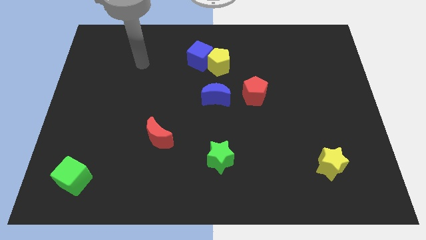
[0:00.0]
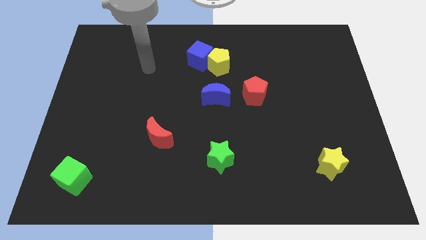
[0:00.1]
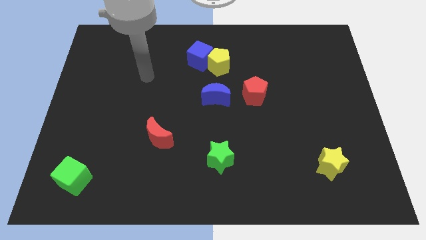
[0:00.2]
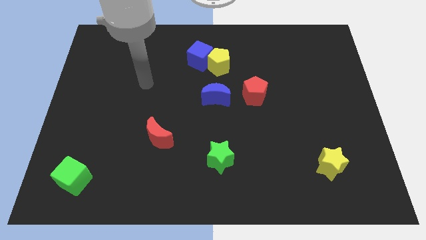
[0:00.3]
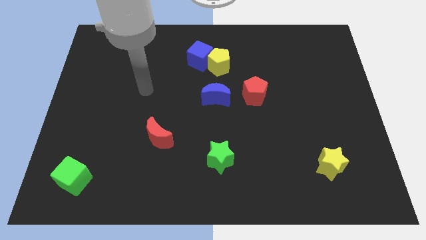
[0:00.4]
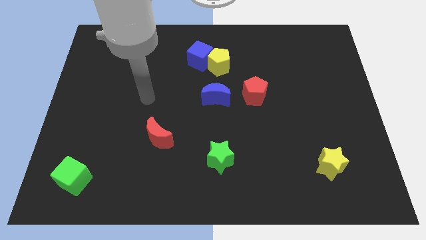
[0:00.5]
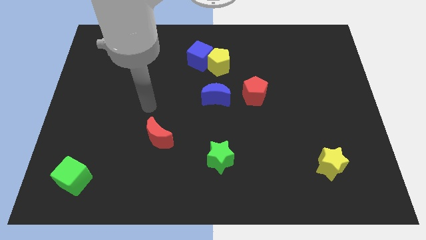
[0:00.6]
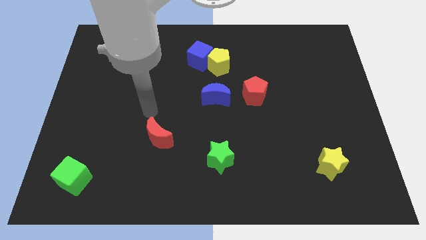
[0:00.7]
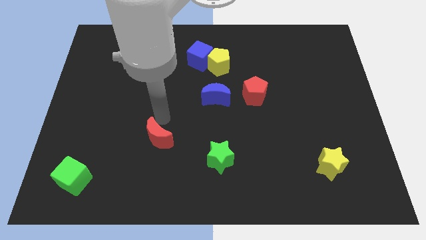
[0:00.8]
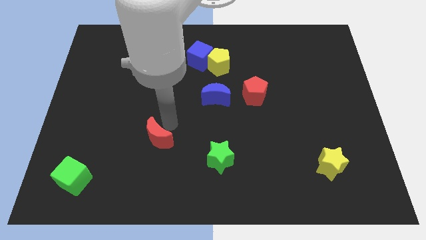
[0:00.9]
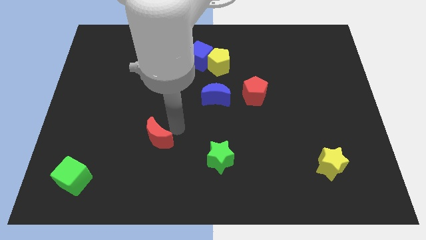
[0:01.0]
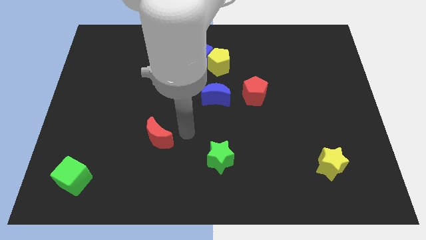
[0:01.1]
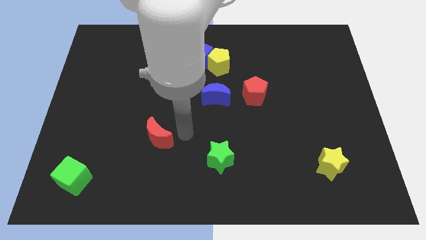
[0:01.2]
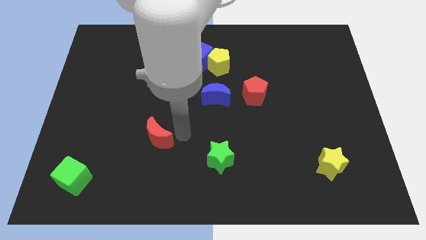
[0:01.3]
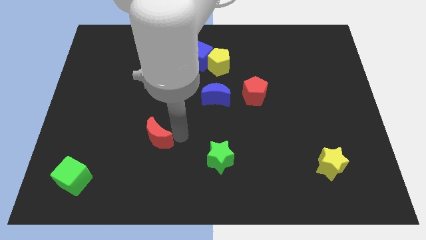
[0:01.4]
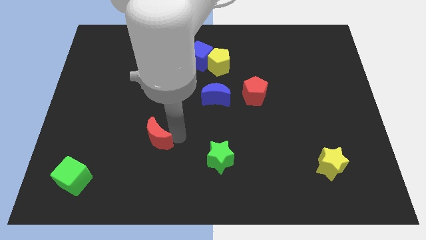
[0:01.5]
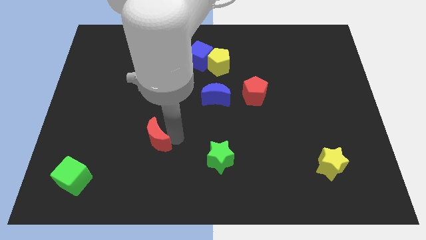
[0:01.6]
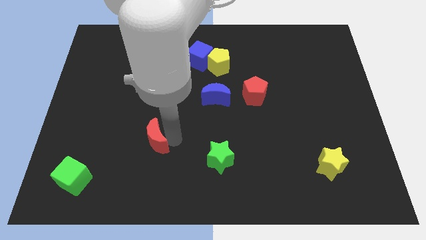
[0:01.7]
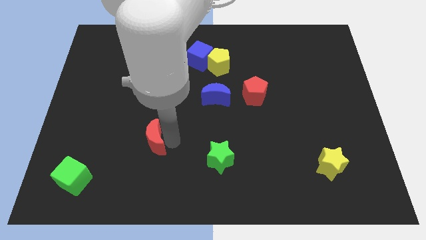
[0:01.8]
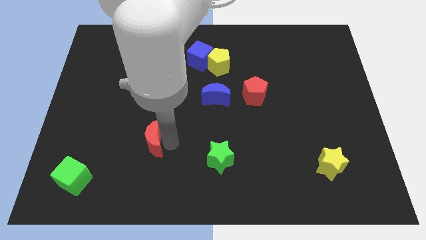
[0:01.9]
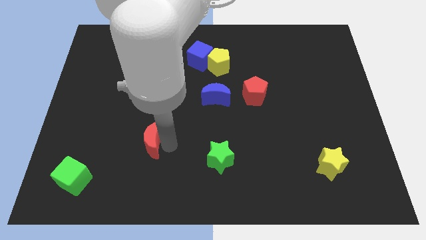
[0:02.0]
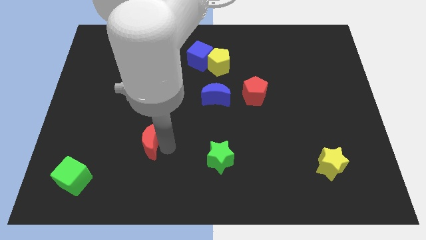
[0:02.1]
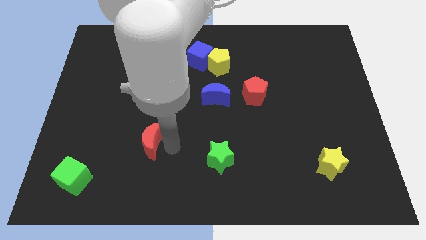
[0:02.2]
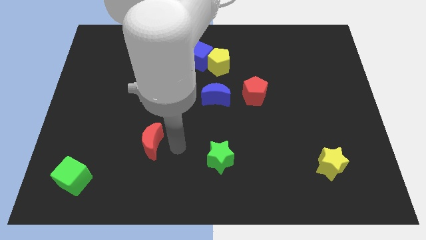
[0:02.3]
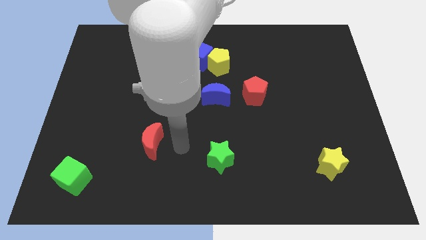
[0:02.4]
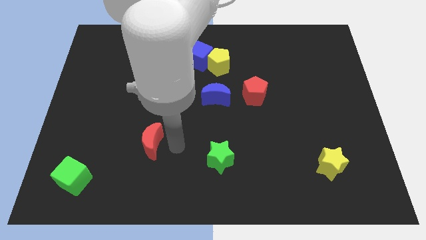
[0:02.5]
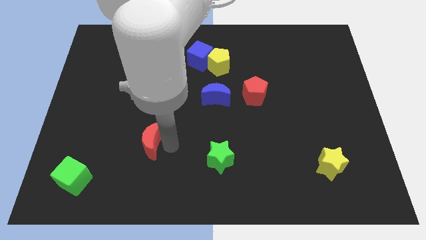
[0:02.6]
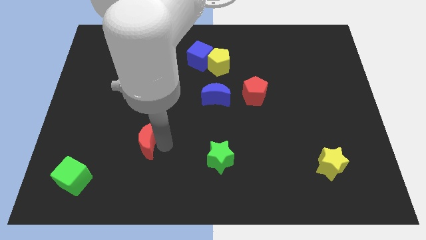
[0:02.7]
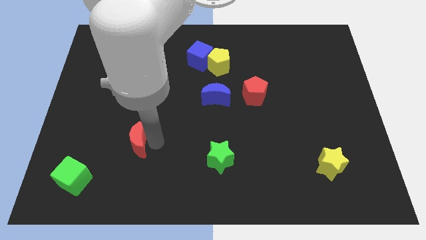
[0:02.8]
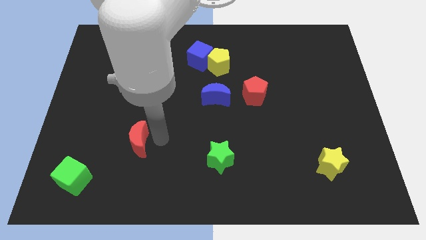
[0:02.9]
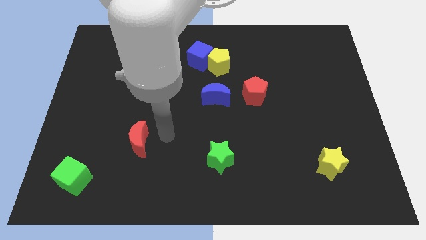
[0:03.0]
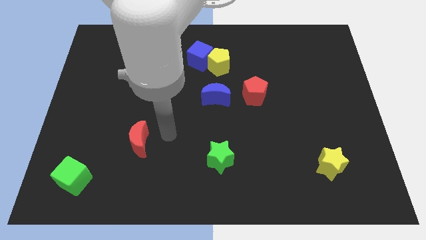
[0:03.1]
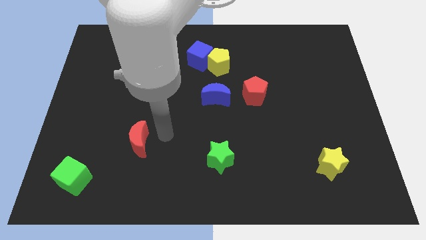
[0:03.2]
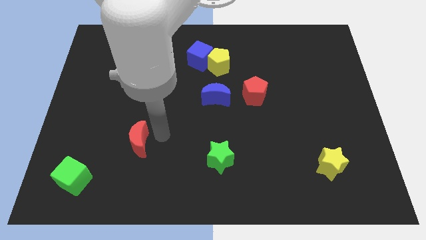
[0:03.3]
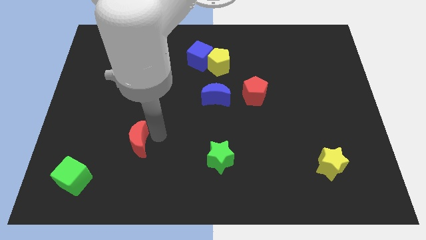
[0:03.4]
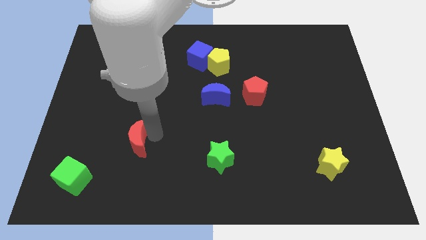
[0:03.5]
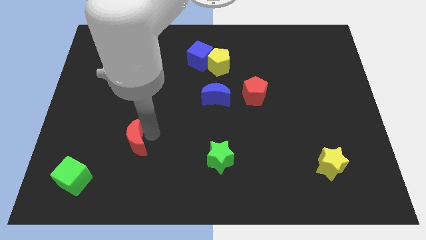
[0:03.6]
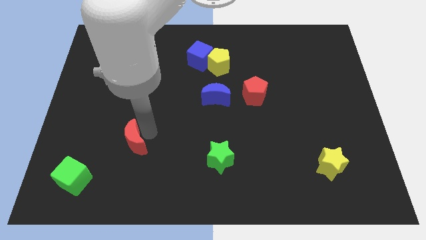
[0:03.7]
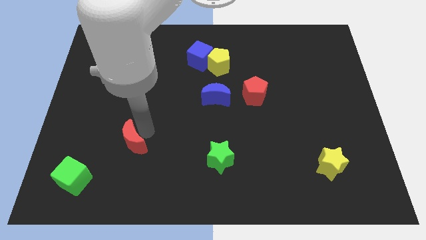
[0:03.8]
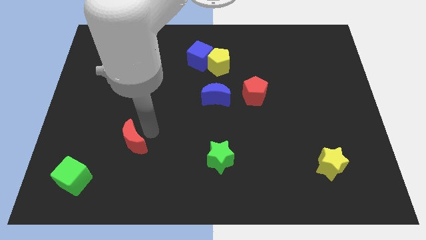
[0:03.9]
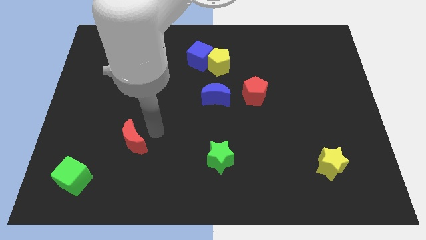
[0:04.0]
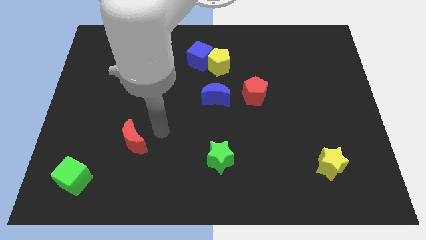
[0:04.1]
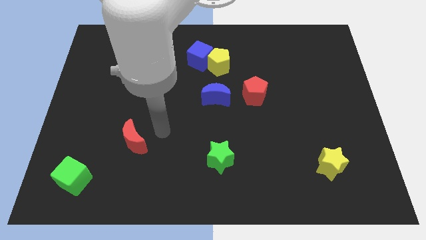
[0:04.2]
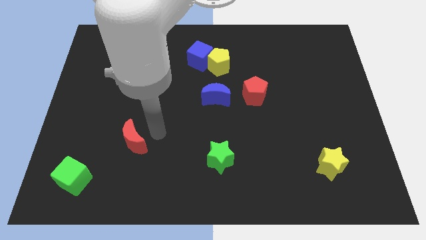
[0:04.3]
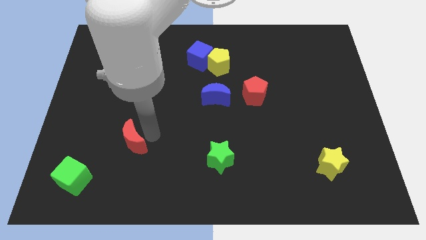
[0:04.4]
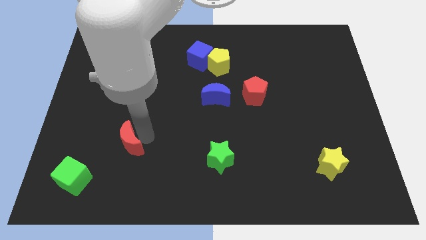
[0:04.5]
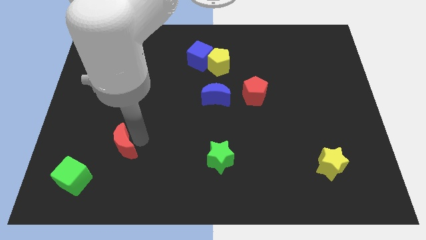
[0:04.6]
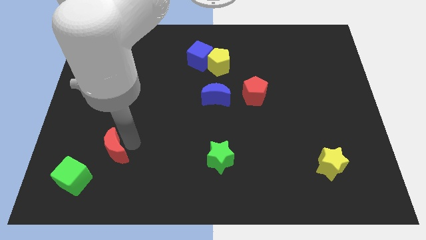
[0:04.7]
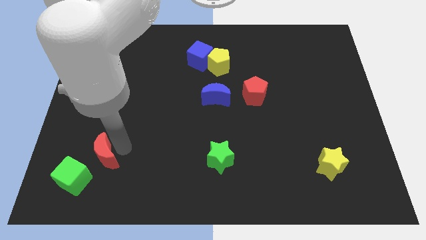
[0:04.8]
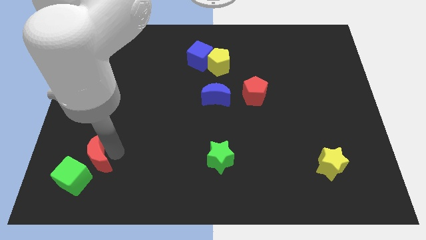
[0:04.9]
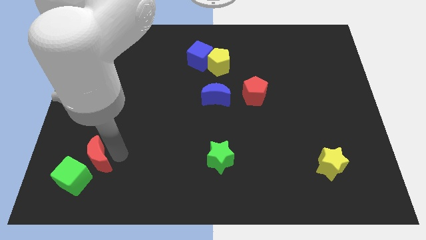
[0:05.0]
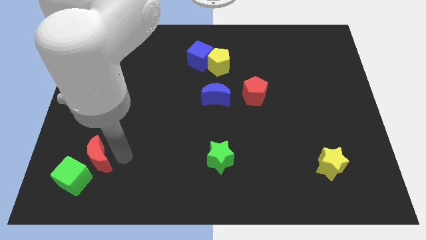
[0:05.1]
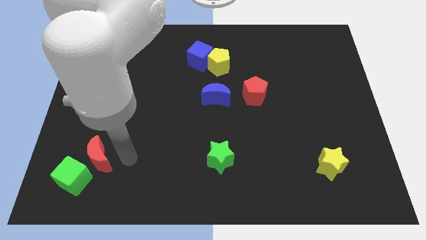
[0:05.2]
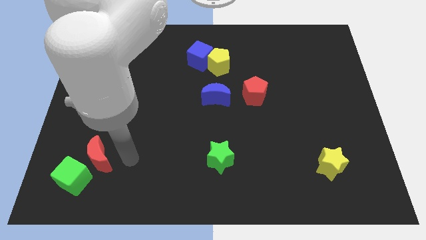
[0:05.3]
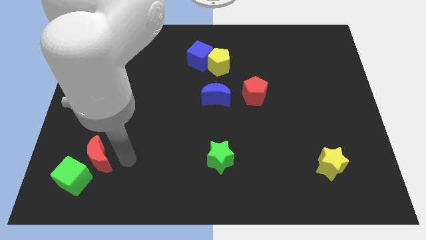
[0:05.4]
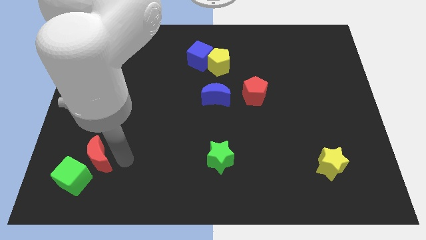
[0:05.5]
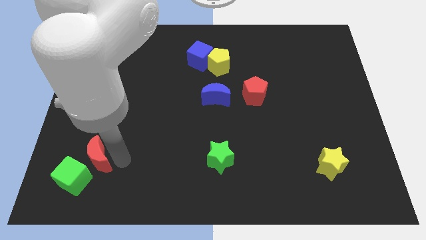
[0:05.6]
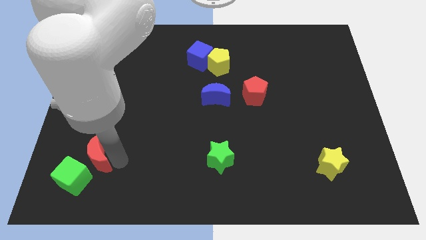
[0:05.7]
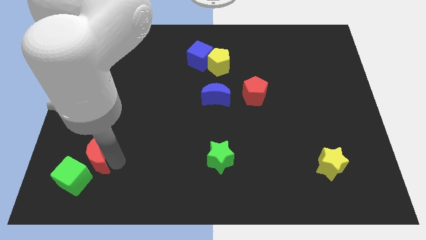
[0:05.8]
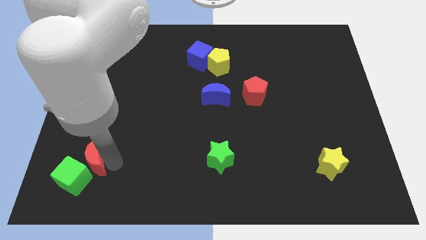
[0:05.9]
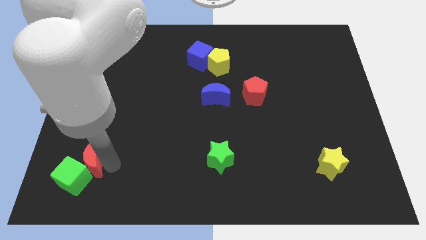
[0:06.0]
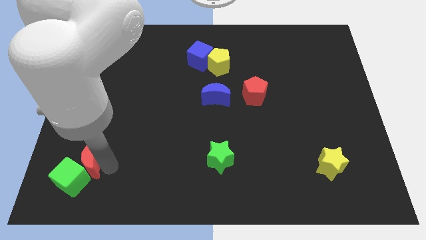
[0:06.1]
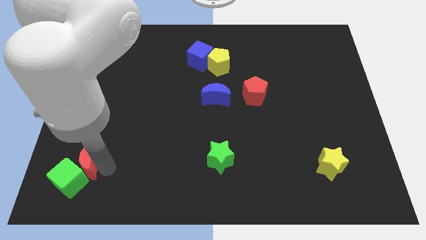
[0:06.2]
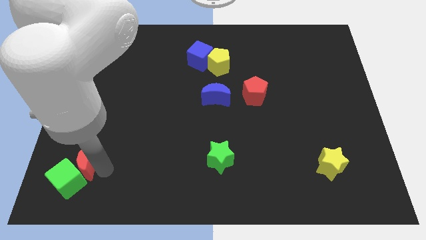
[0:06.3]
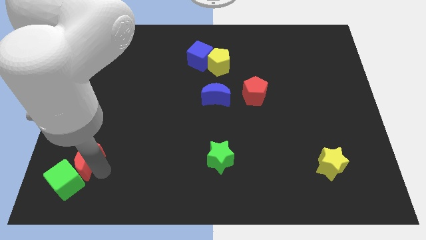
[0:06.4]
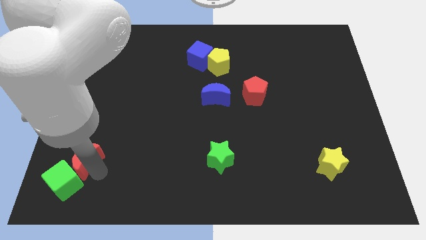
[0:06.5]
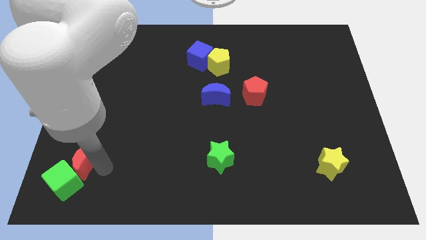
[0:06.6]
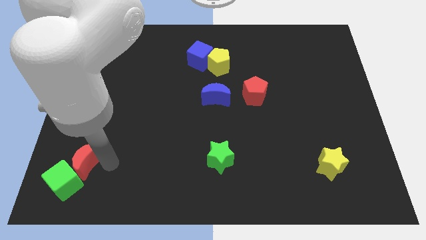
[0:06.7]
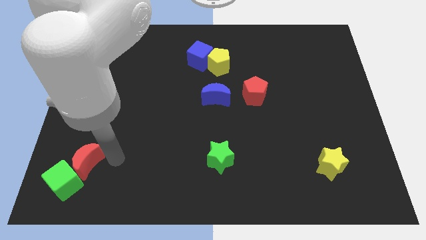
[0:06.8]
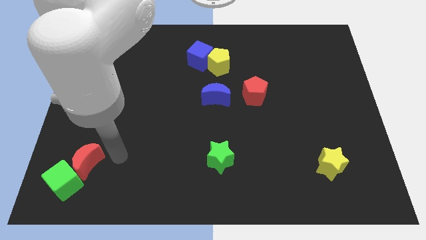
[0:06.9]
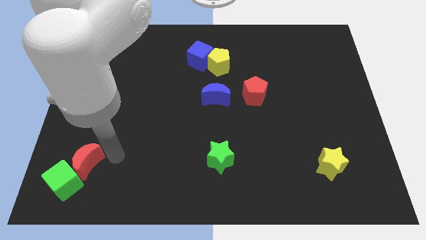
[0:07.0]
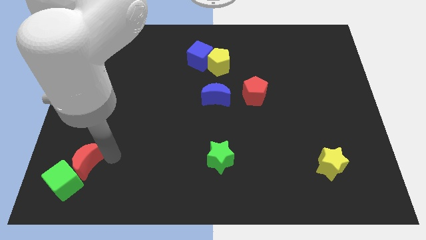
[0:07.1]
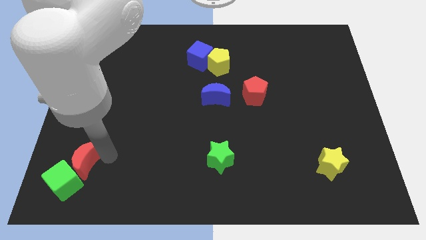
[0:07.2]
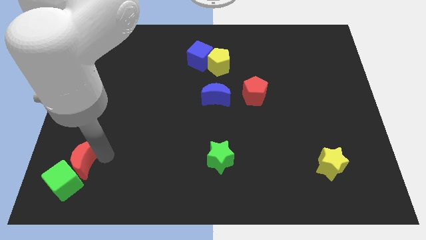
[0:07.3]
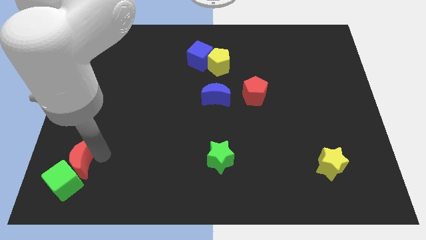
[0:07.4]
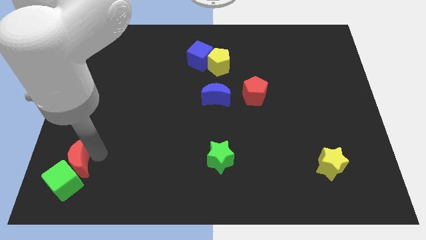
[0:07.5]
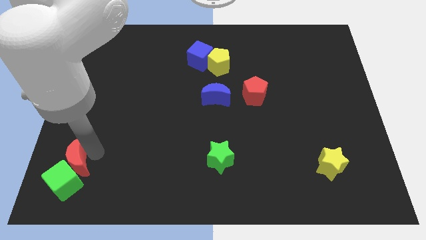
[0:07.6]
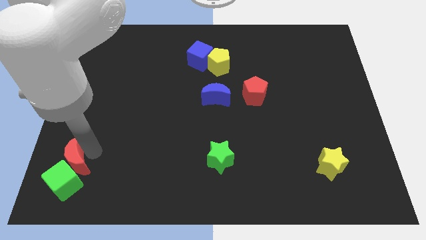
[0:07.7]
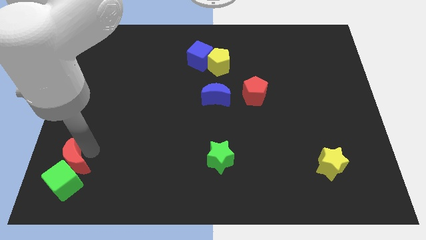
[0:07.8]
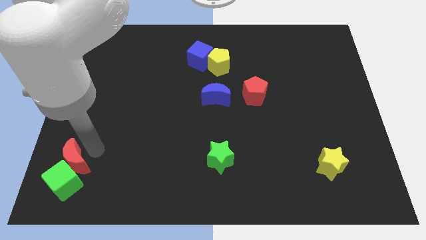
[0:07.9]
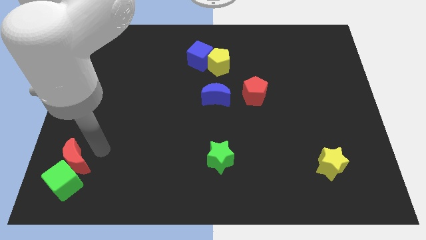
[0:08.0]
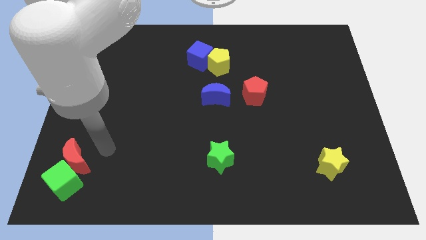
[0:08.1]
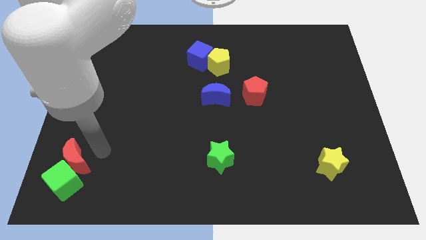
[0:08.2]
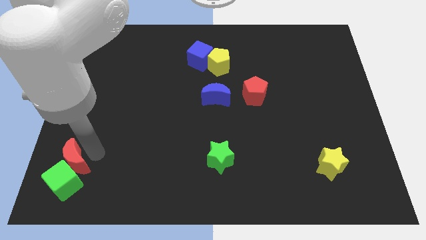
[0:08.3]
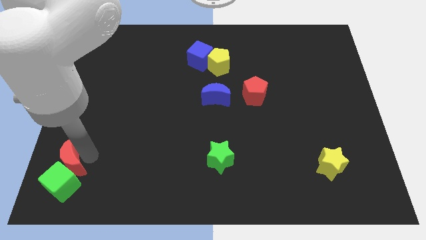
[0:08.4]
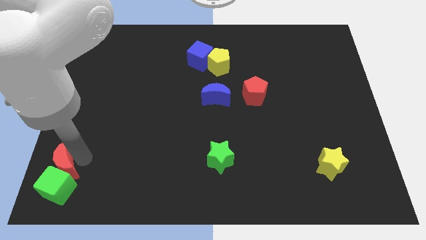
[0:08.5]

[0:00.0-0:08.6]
push the red moon to the bottom left of the board
